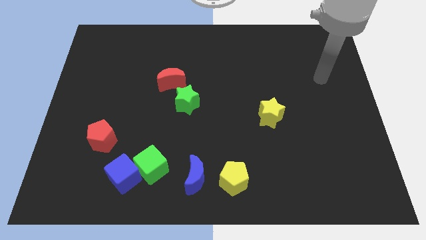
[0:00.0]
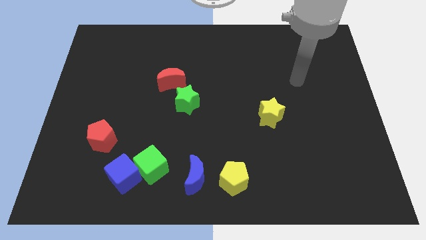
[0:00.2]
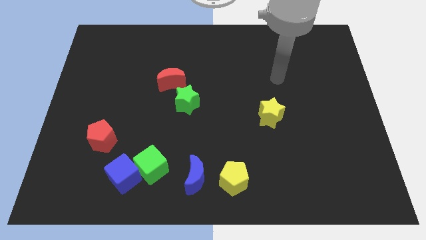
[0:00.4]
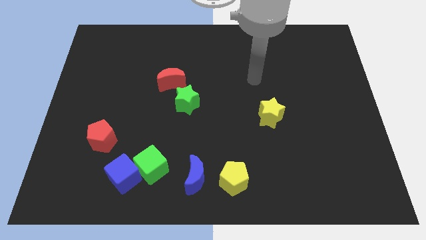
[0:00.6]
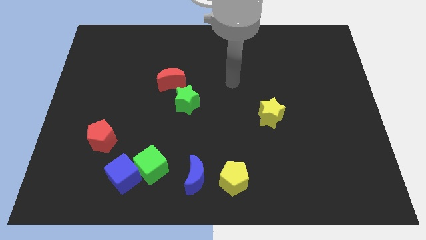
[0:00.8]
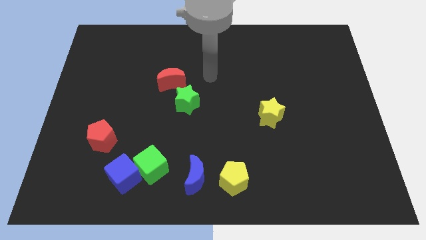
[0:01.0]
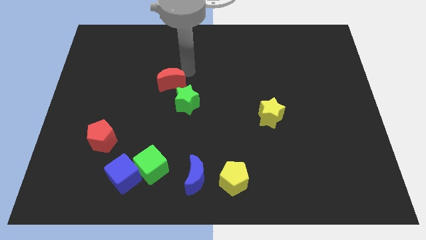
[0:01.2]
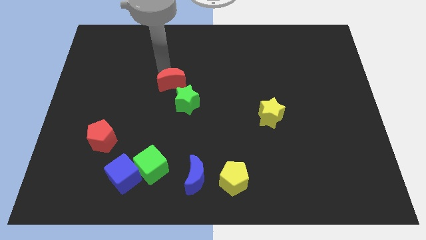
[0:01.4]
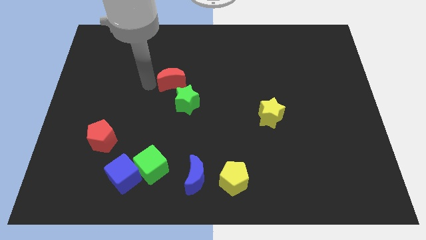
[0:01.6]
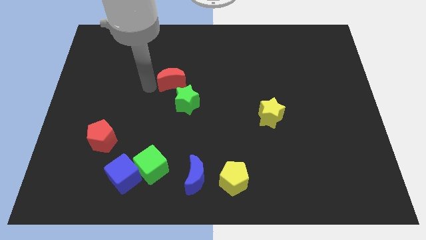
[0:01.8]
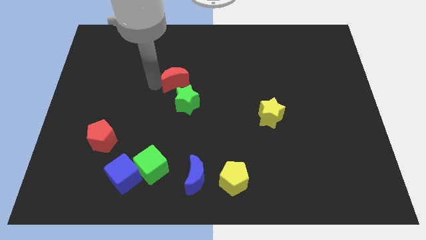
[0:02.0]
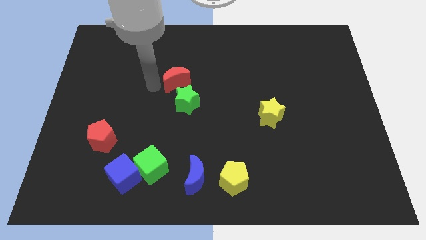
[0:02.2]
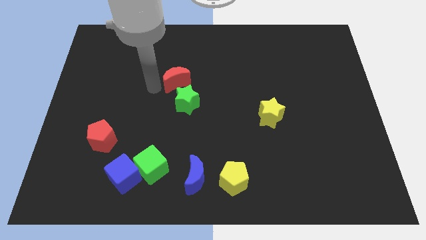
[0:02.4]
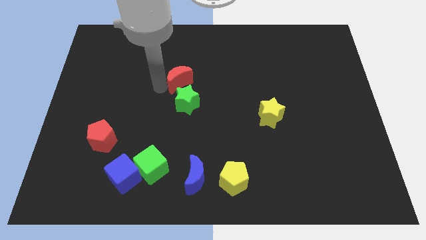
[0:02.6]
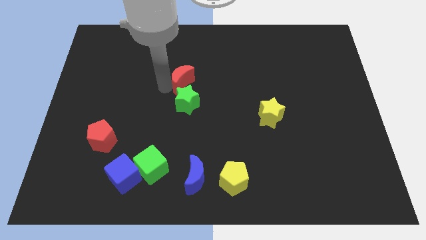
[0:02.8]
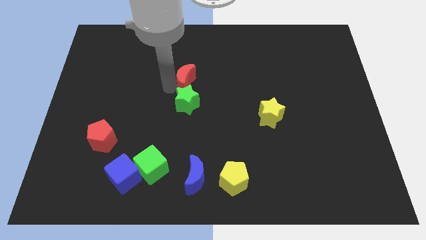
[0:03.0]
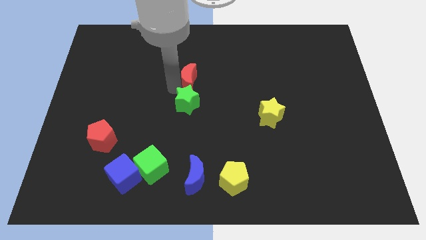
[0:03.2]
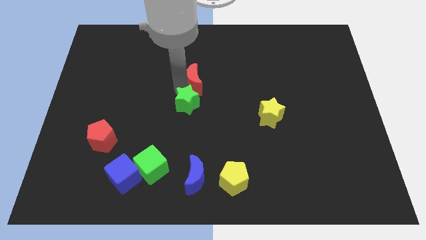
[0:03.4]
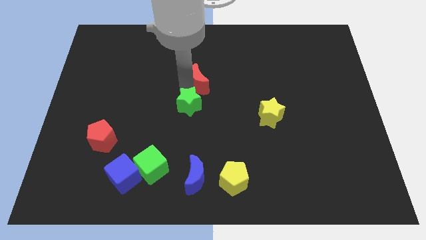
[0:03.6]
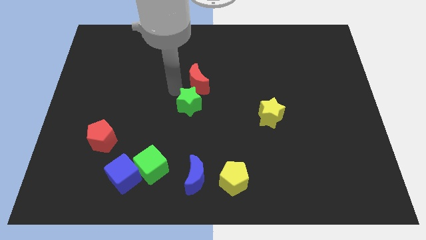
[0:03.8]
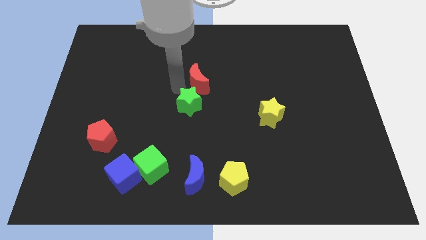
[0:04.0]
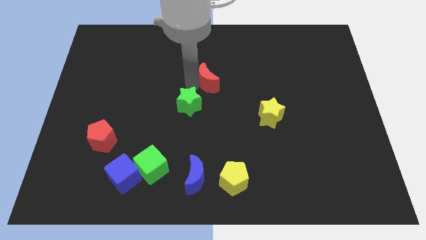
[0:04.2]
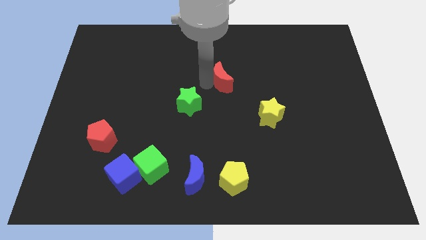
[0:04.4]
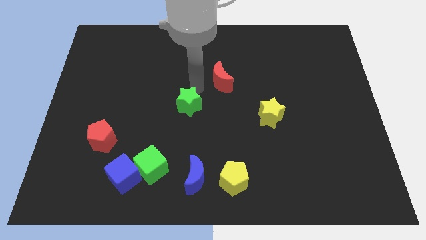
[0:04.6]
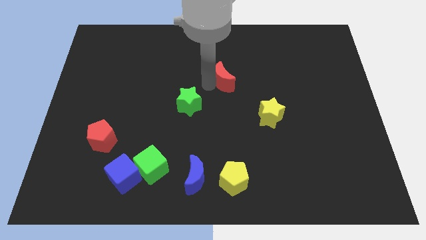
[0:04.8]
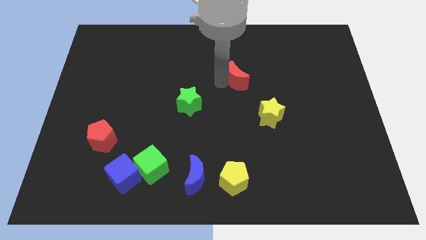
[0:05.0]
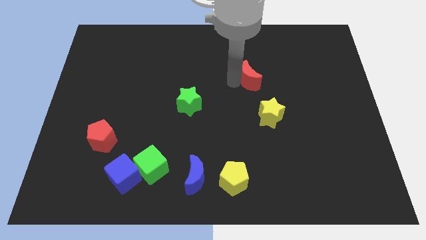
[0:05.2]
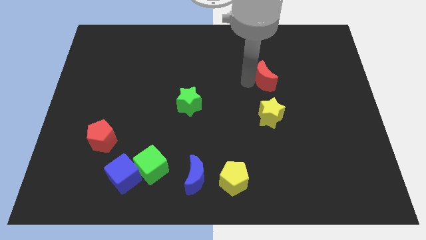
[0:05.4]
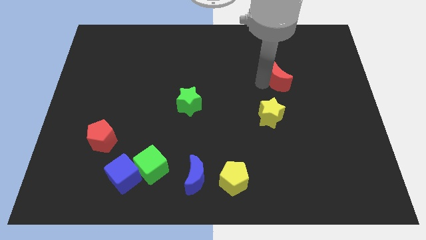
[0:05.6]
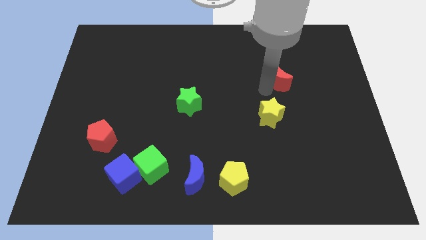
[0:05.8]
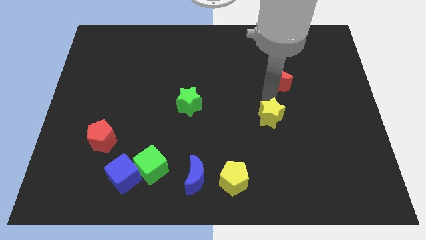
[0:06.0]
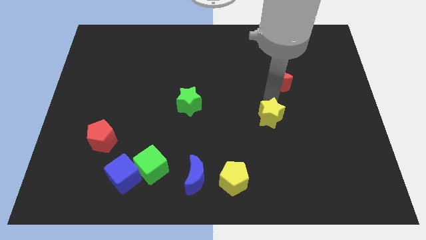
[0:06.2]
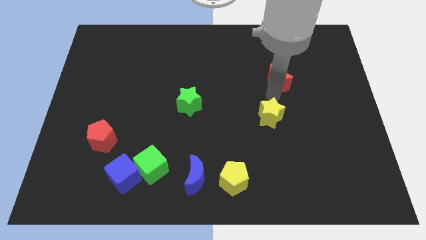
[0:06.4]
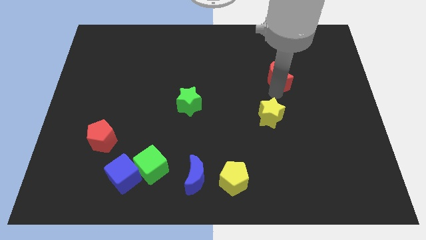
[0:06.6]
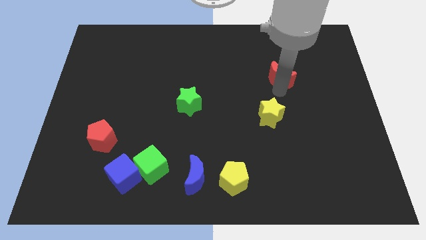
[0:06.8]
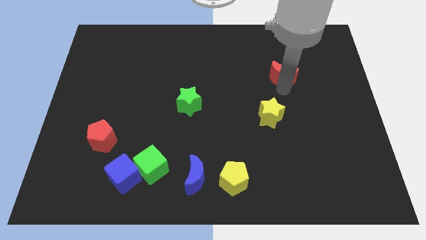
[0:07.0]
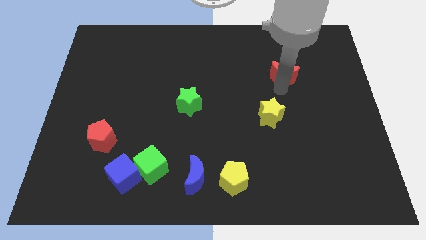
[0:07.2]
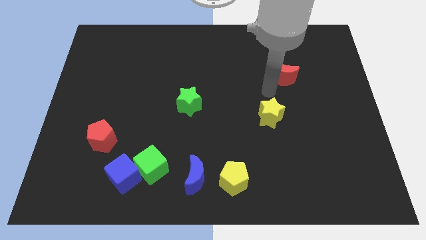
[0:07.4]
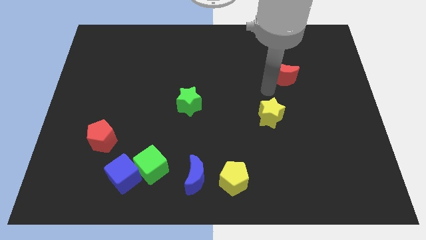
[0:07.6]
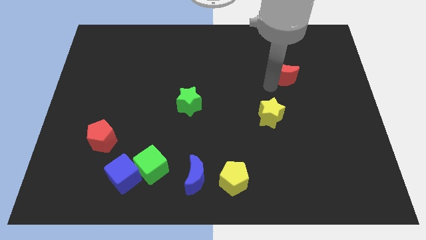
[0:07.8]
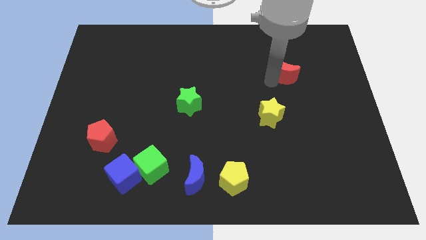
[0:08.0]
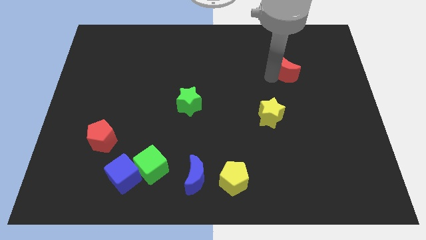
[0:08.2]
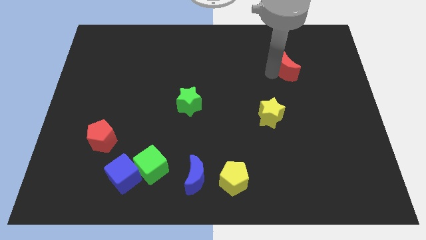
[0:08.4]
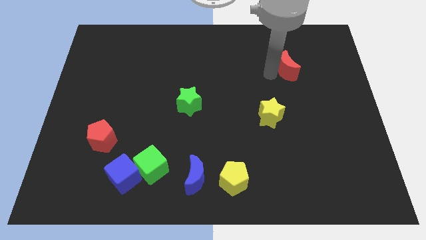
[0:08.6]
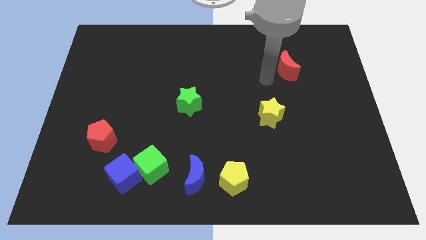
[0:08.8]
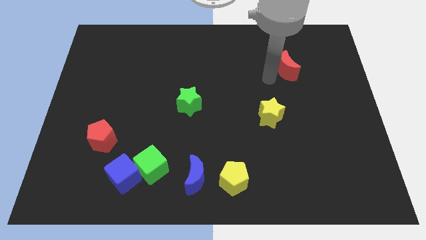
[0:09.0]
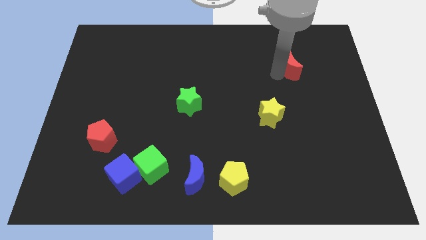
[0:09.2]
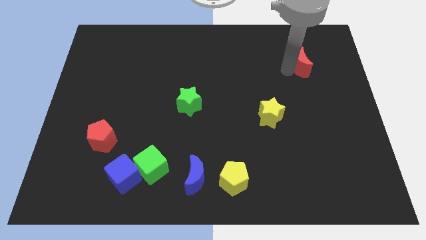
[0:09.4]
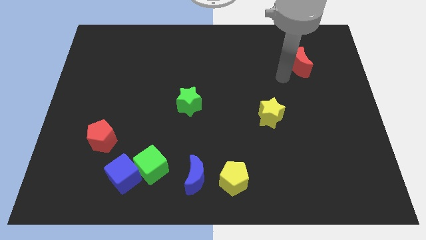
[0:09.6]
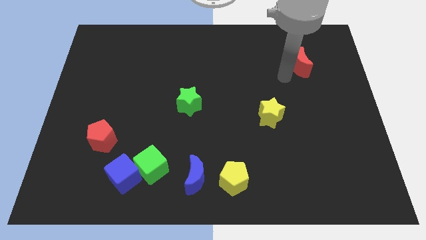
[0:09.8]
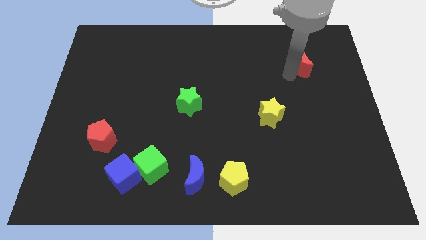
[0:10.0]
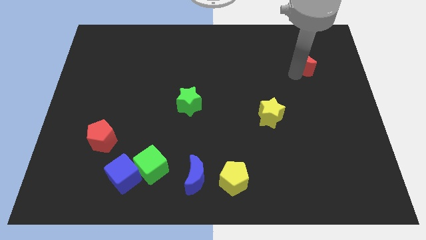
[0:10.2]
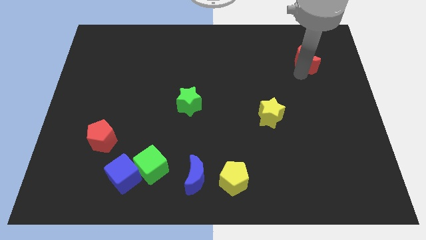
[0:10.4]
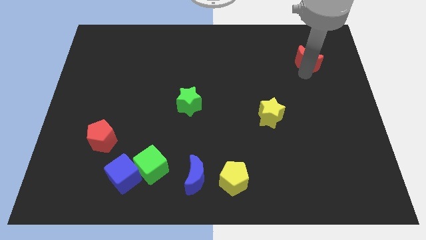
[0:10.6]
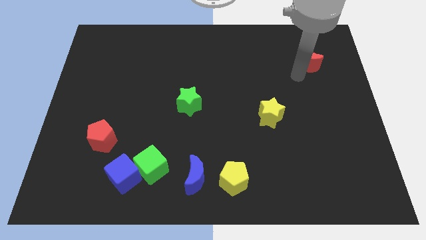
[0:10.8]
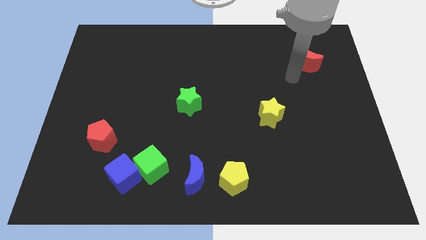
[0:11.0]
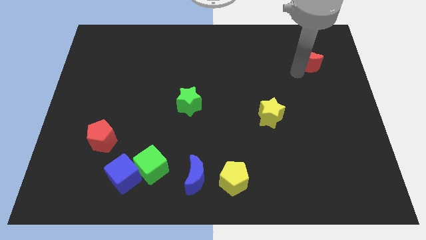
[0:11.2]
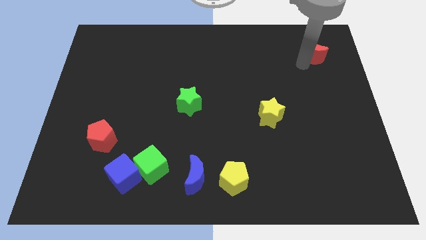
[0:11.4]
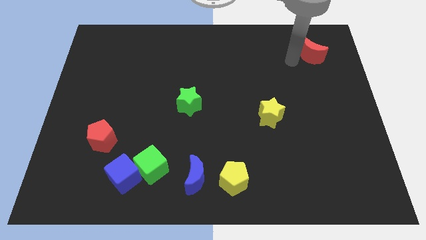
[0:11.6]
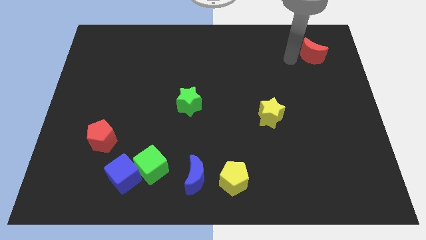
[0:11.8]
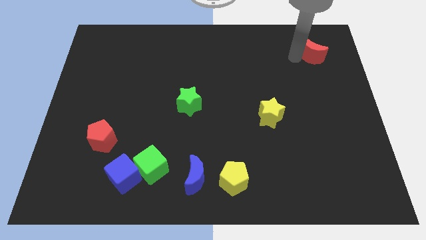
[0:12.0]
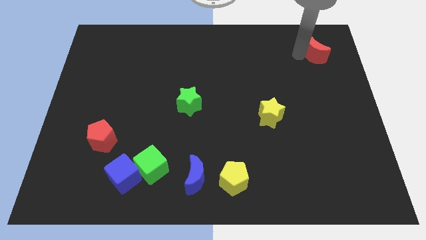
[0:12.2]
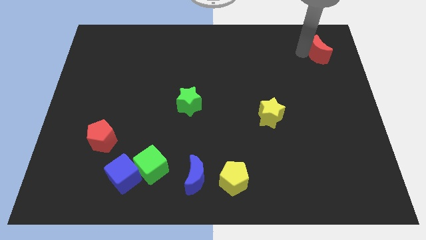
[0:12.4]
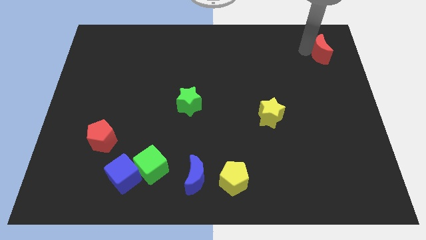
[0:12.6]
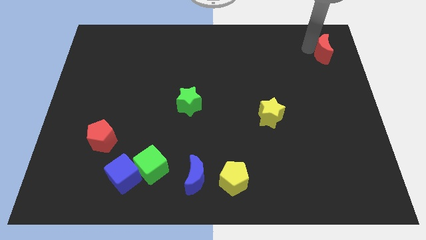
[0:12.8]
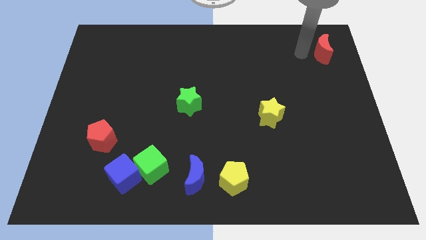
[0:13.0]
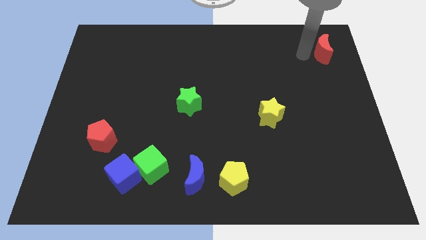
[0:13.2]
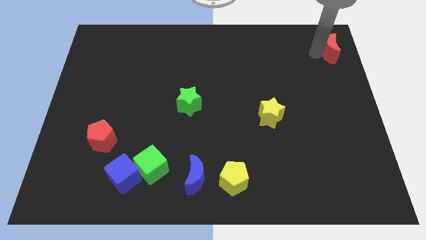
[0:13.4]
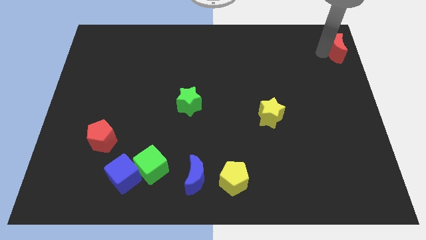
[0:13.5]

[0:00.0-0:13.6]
push the red moon to the top right of the board
